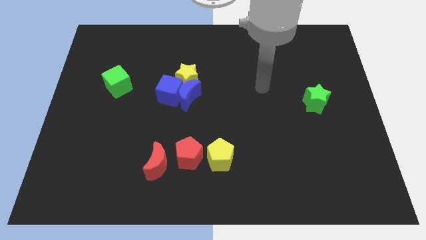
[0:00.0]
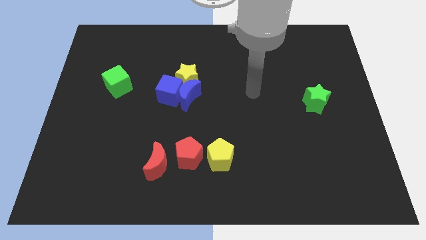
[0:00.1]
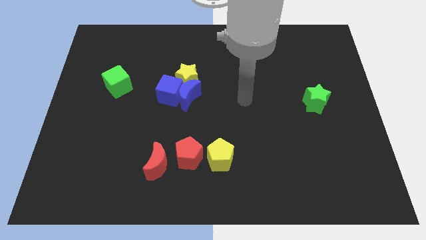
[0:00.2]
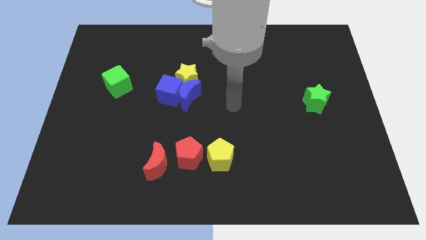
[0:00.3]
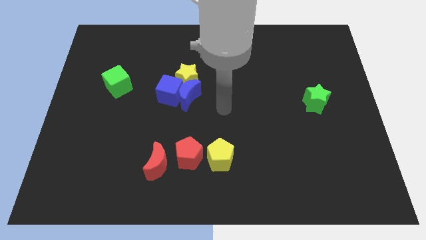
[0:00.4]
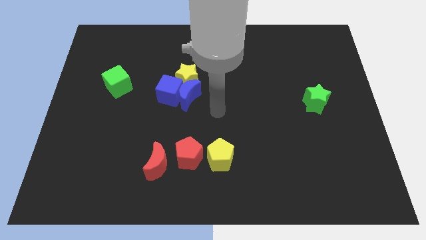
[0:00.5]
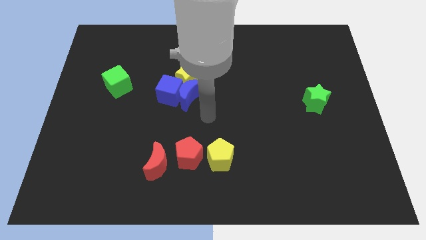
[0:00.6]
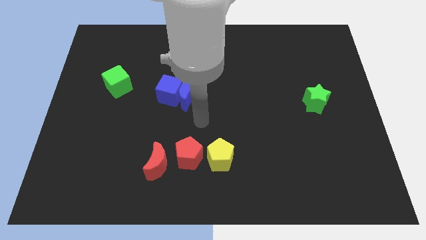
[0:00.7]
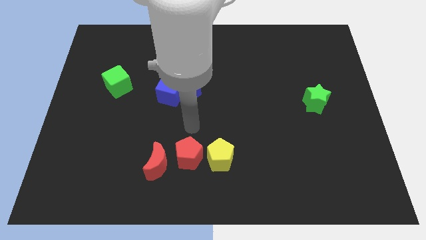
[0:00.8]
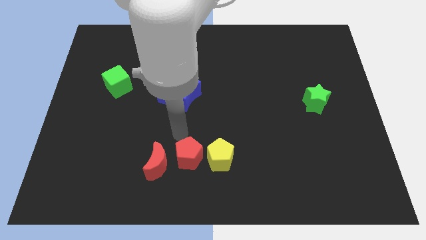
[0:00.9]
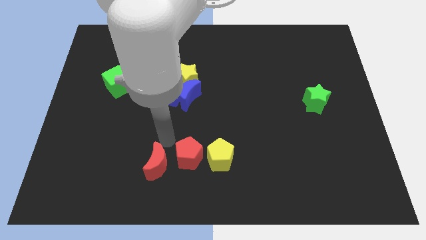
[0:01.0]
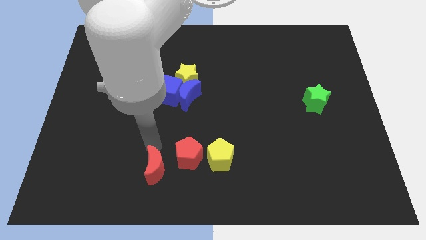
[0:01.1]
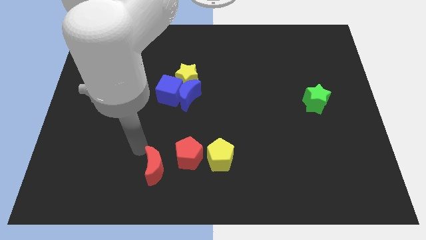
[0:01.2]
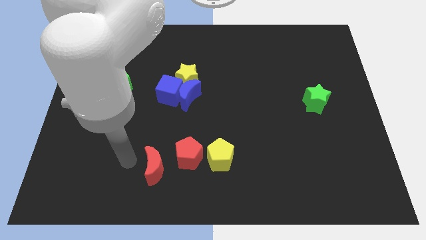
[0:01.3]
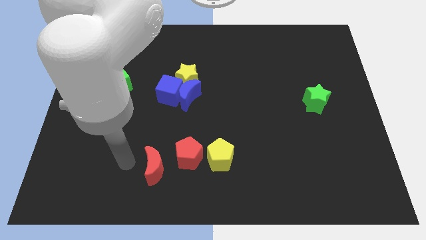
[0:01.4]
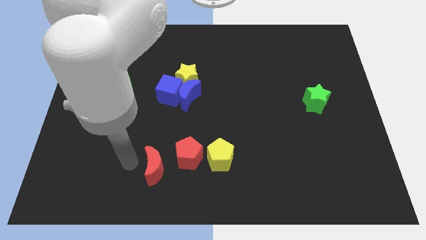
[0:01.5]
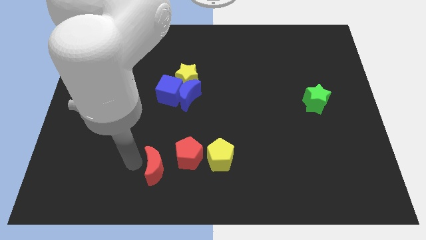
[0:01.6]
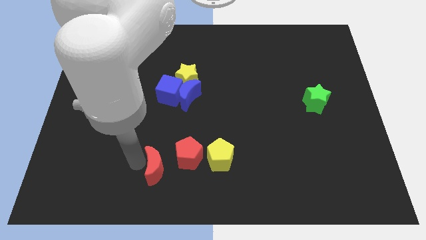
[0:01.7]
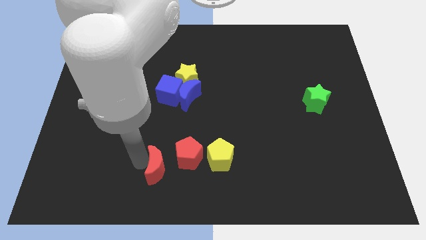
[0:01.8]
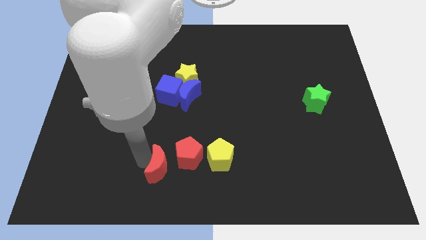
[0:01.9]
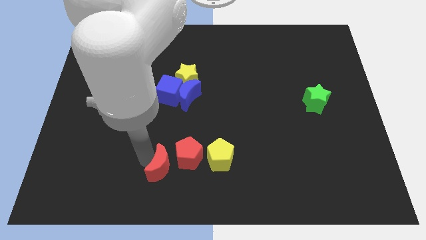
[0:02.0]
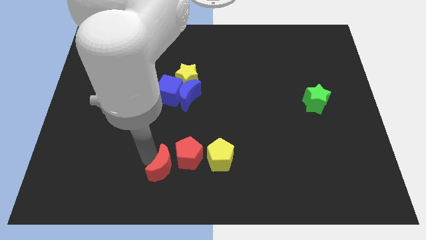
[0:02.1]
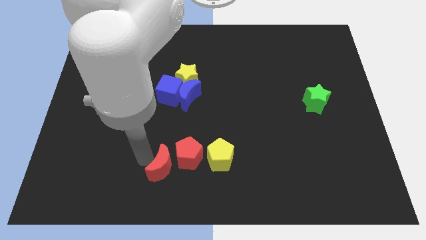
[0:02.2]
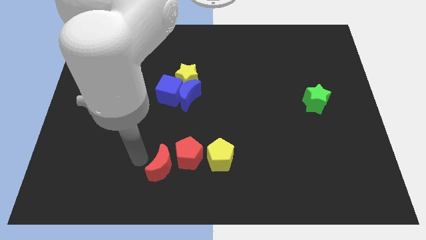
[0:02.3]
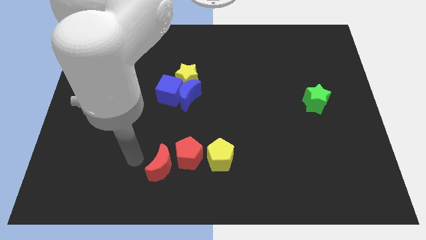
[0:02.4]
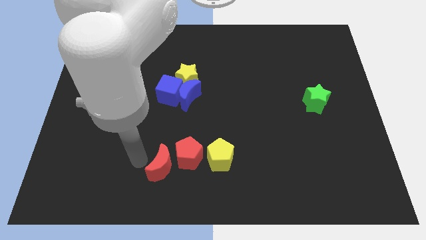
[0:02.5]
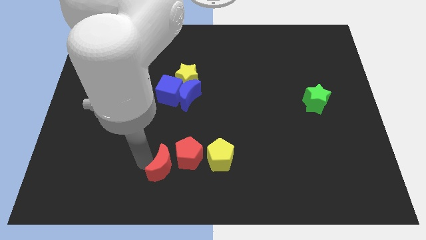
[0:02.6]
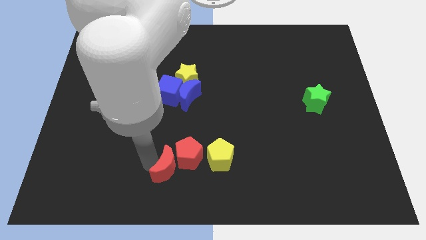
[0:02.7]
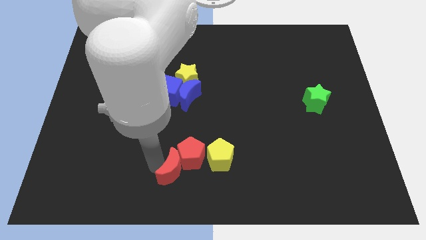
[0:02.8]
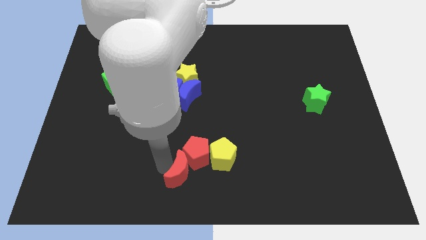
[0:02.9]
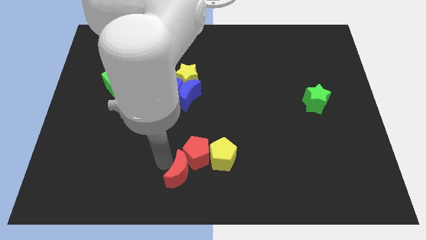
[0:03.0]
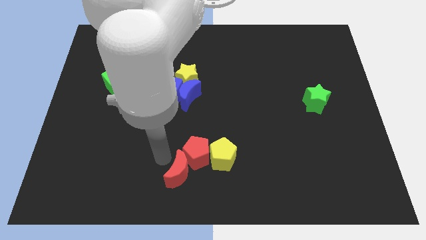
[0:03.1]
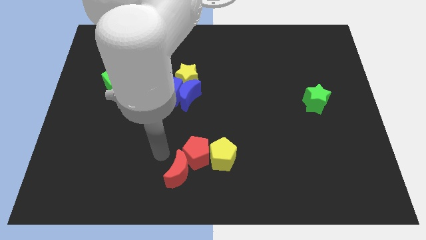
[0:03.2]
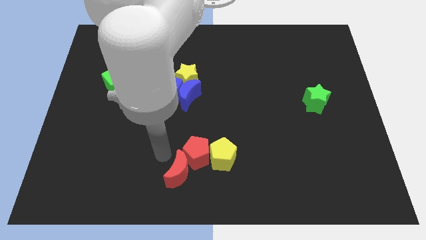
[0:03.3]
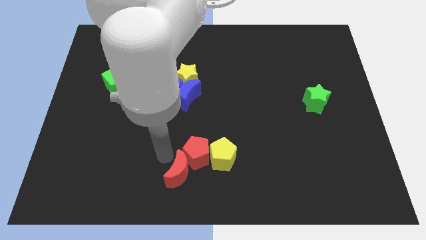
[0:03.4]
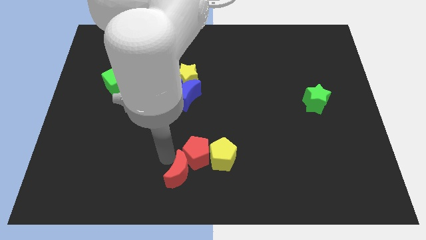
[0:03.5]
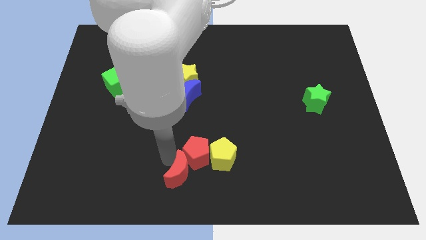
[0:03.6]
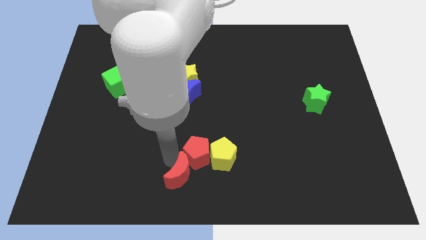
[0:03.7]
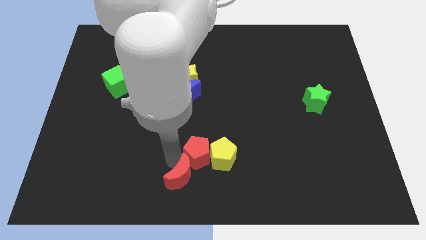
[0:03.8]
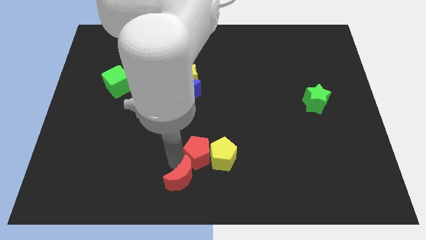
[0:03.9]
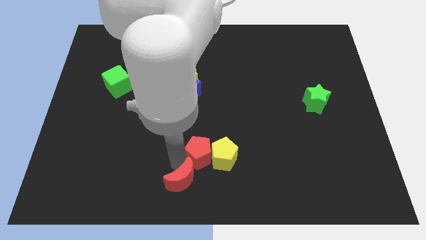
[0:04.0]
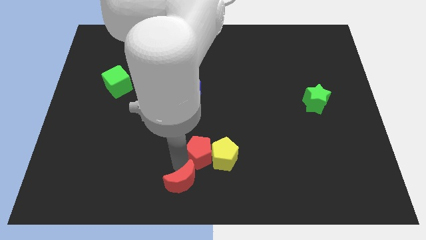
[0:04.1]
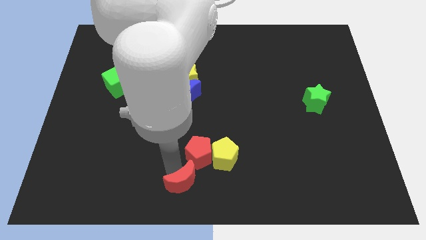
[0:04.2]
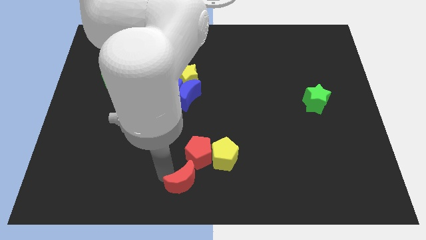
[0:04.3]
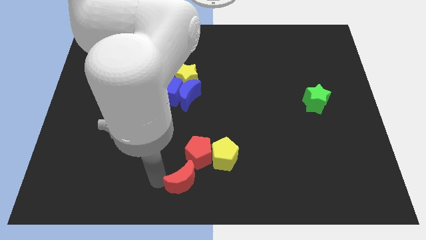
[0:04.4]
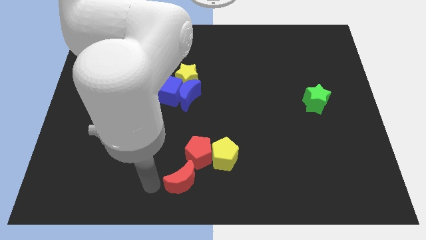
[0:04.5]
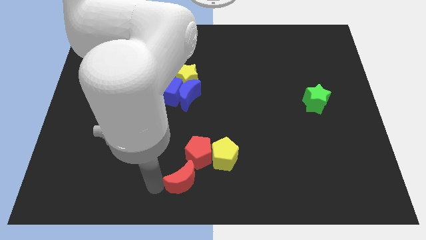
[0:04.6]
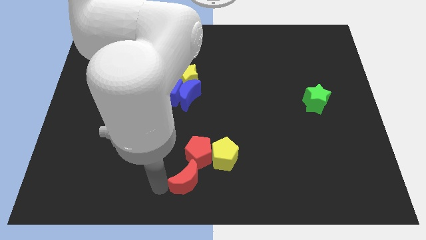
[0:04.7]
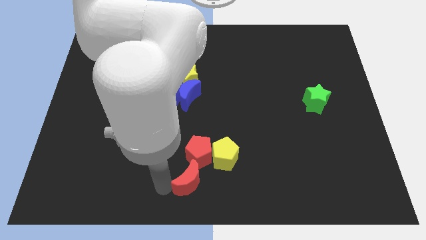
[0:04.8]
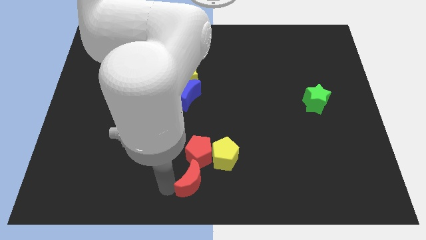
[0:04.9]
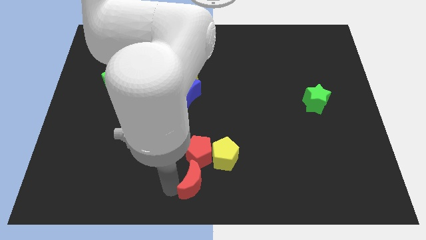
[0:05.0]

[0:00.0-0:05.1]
slightly move the red moon right

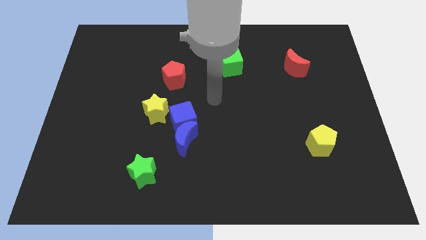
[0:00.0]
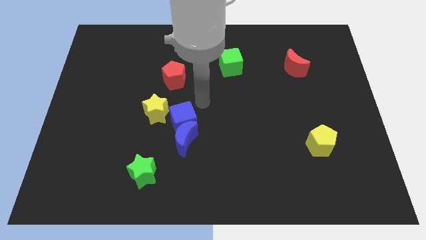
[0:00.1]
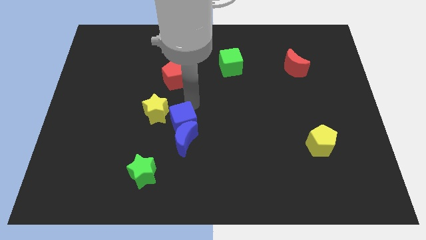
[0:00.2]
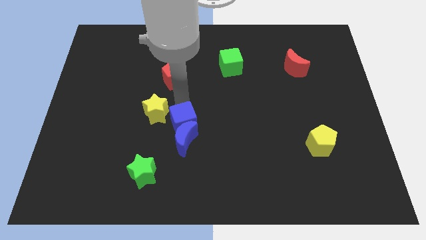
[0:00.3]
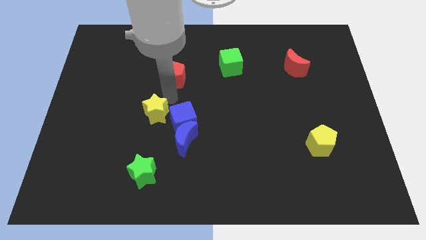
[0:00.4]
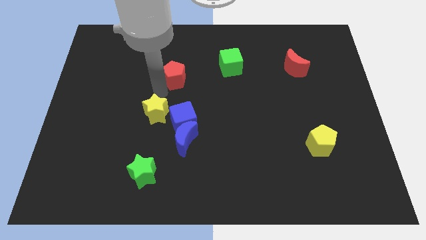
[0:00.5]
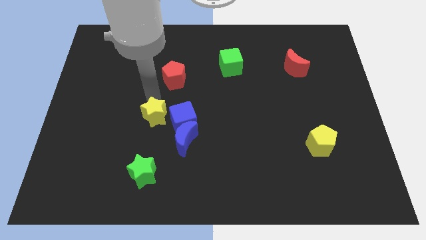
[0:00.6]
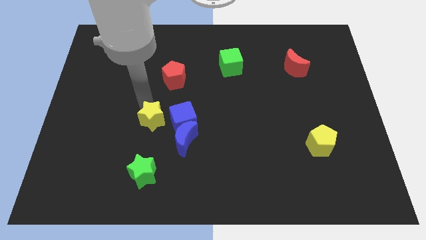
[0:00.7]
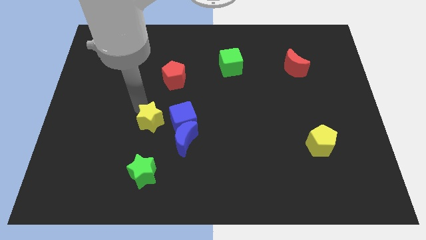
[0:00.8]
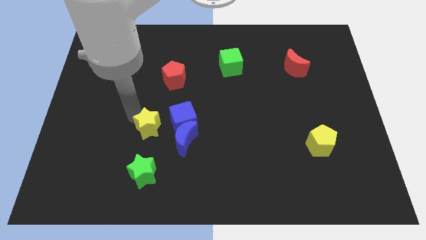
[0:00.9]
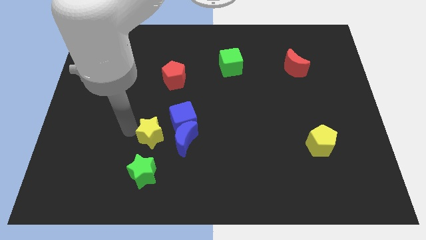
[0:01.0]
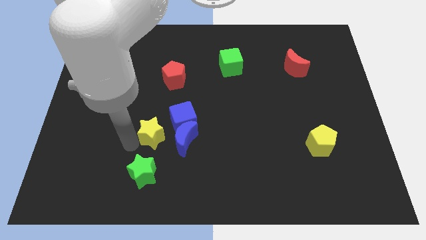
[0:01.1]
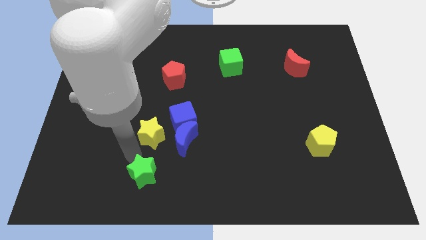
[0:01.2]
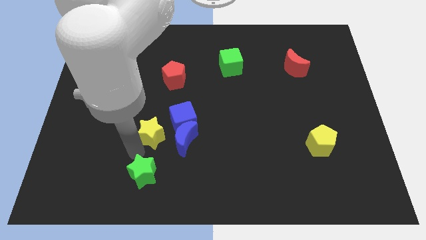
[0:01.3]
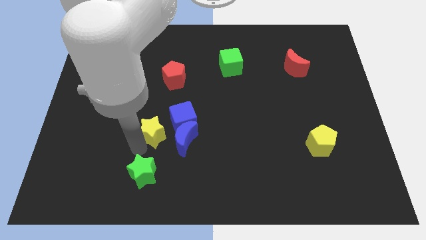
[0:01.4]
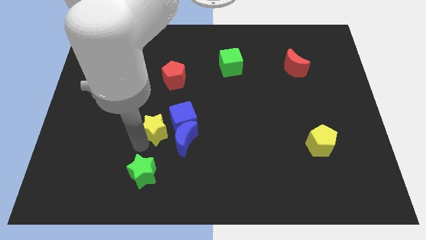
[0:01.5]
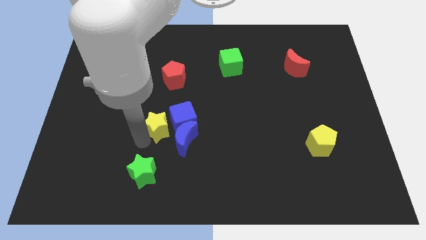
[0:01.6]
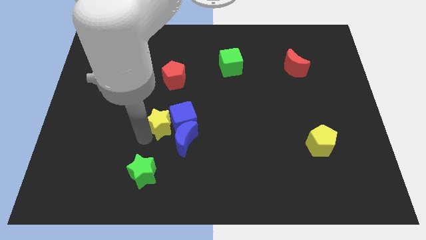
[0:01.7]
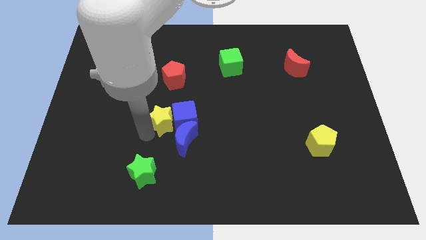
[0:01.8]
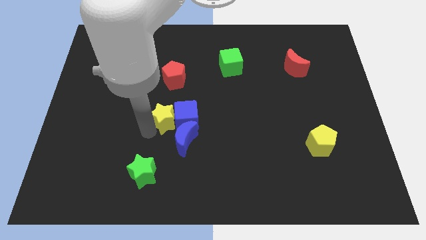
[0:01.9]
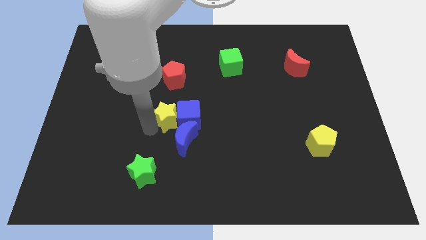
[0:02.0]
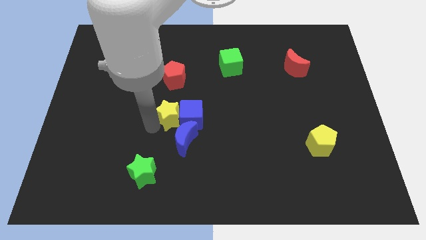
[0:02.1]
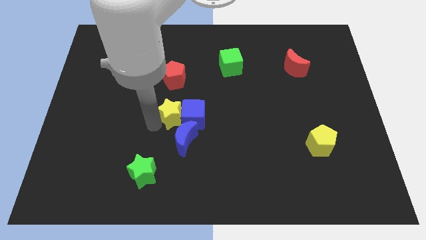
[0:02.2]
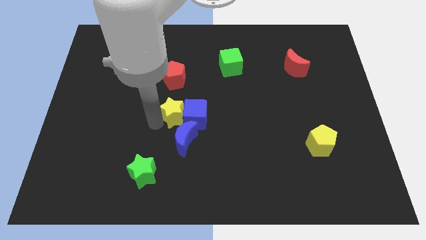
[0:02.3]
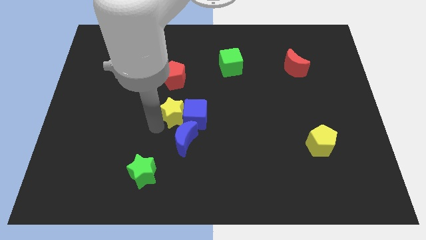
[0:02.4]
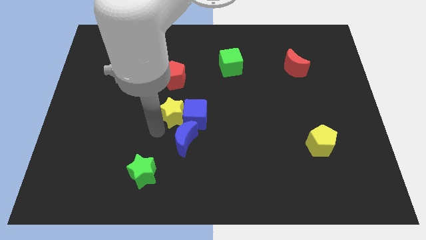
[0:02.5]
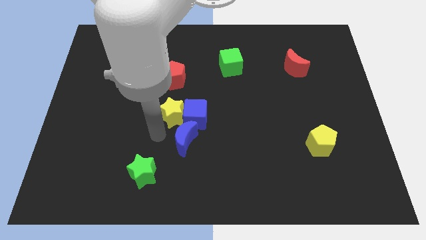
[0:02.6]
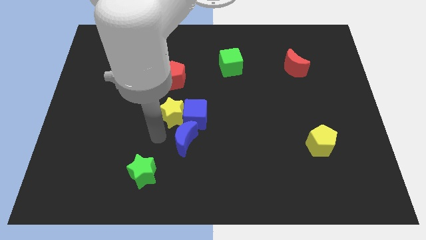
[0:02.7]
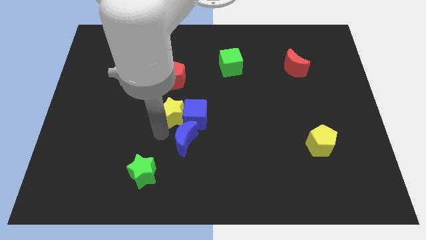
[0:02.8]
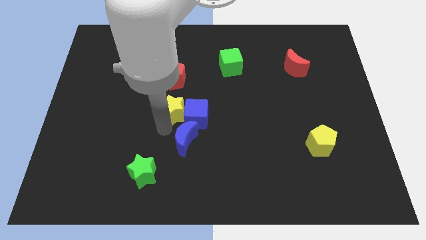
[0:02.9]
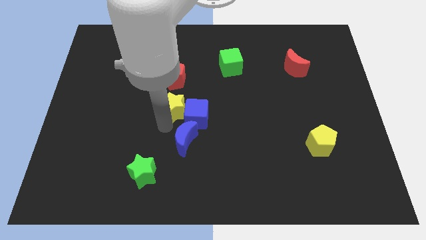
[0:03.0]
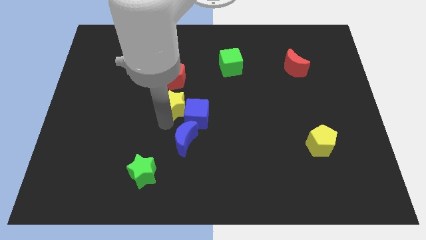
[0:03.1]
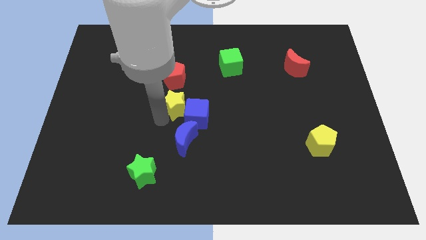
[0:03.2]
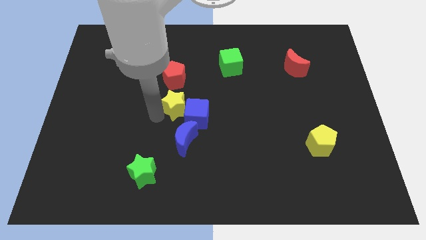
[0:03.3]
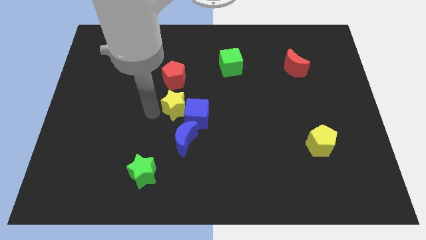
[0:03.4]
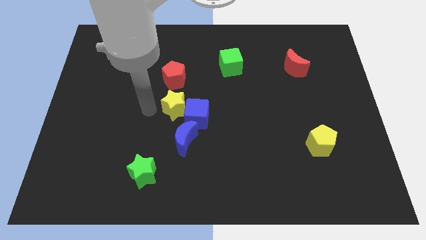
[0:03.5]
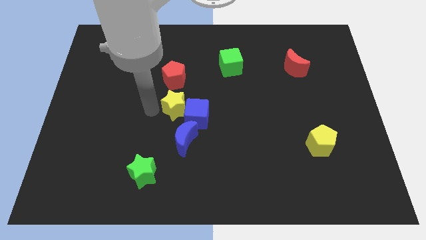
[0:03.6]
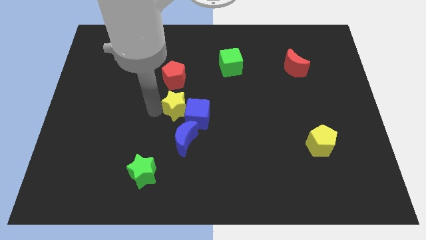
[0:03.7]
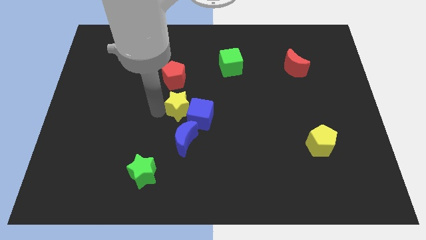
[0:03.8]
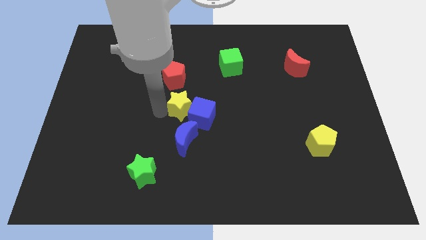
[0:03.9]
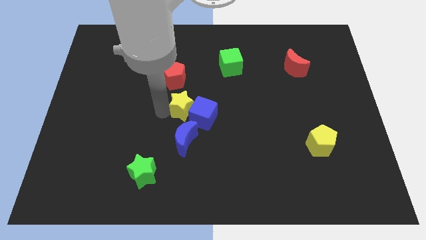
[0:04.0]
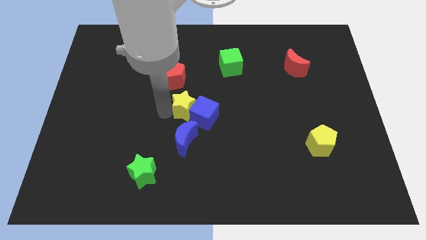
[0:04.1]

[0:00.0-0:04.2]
slightly move the yellow star to the right
